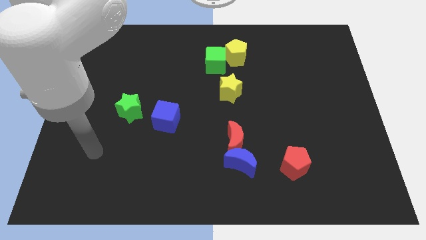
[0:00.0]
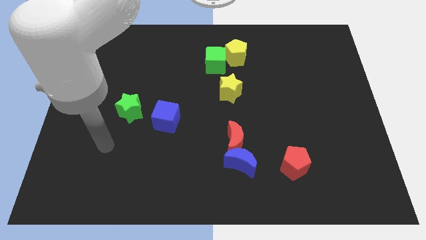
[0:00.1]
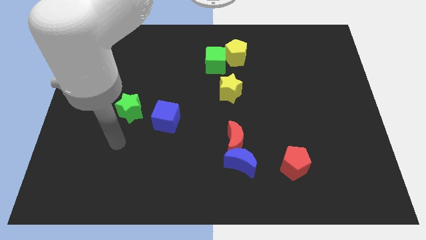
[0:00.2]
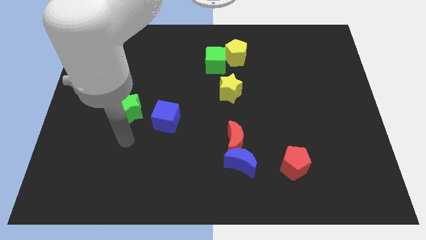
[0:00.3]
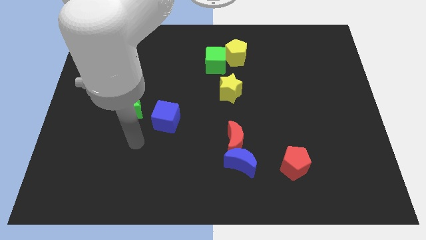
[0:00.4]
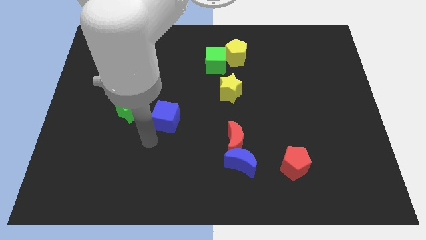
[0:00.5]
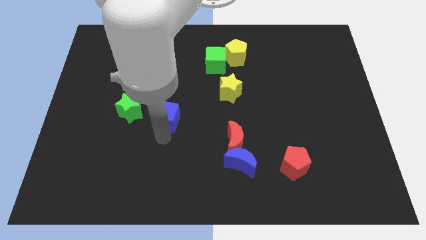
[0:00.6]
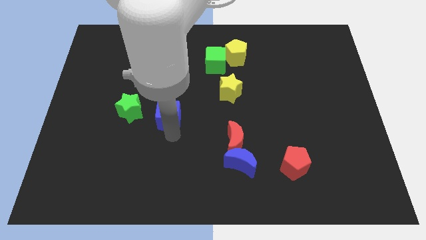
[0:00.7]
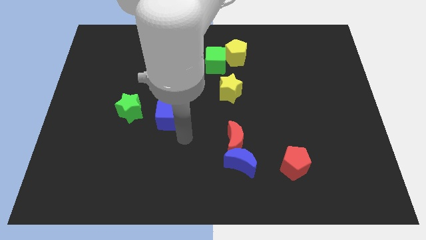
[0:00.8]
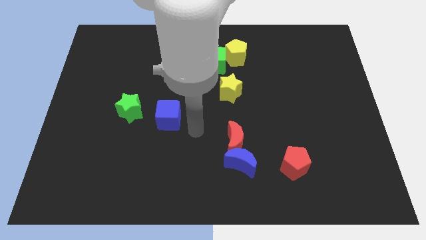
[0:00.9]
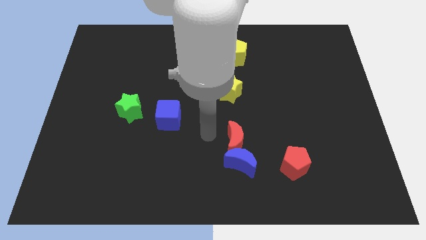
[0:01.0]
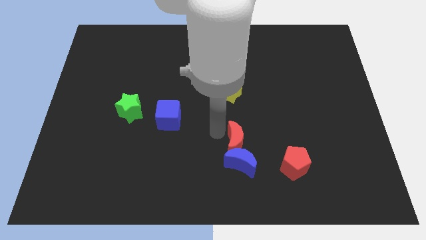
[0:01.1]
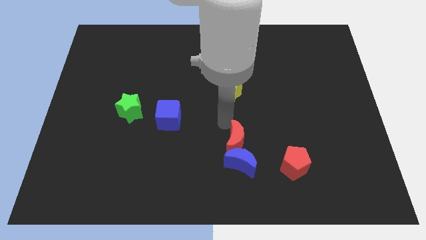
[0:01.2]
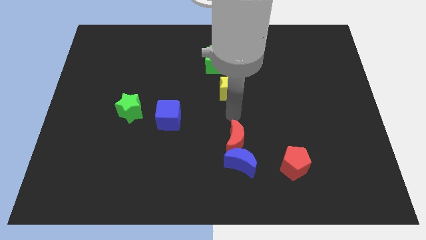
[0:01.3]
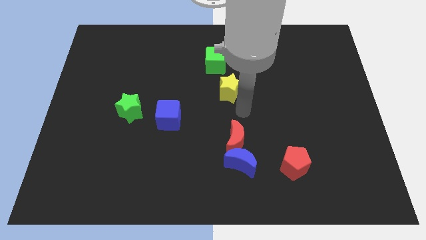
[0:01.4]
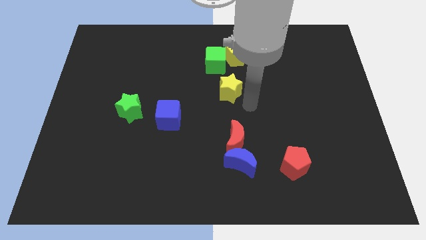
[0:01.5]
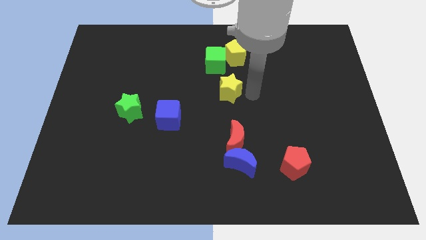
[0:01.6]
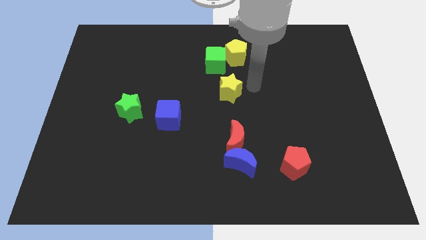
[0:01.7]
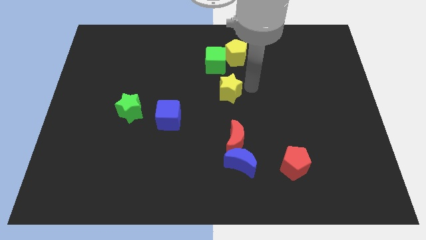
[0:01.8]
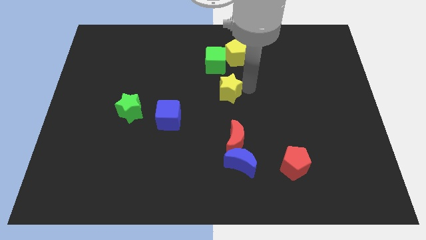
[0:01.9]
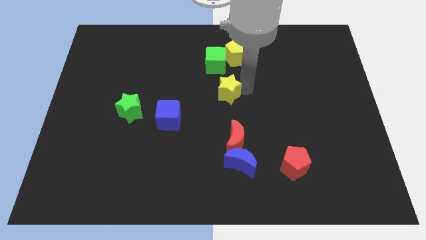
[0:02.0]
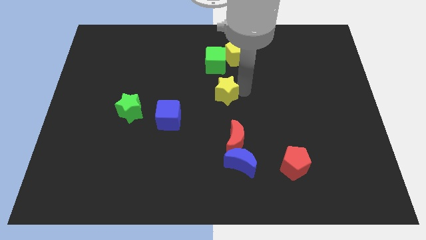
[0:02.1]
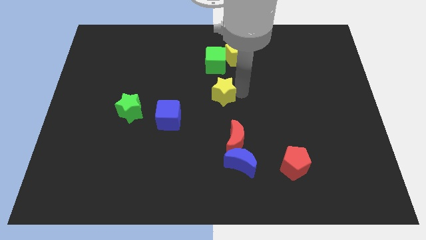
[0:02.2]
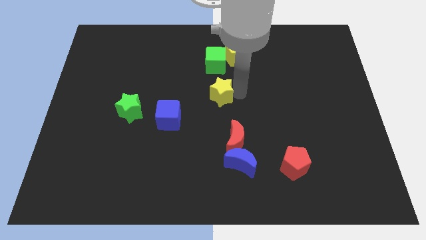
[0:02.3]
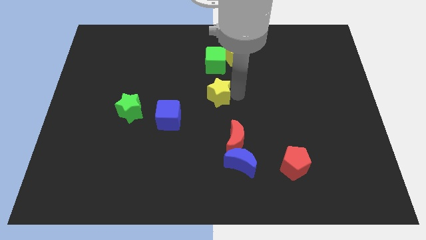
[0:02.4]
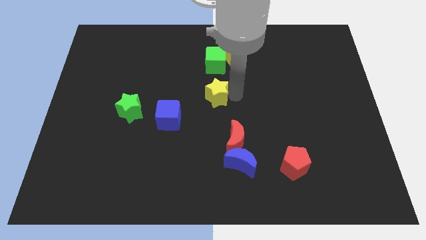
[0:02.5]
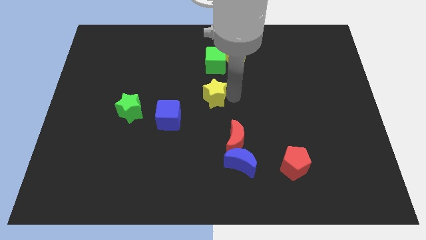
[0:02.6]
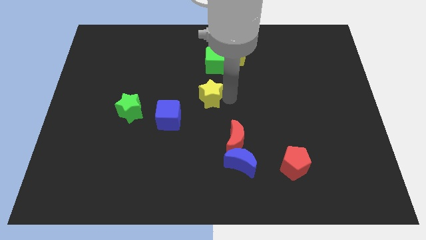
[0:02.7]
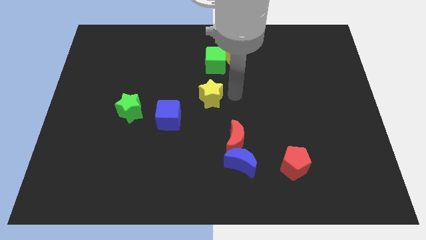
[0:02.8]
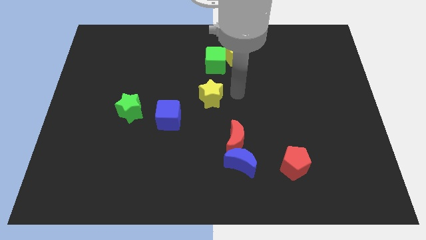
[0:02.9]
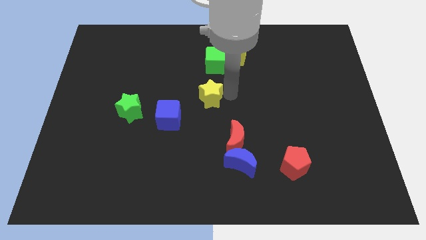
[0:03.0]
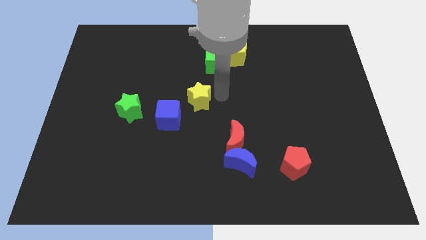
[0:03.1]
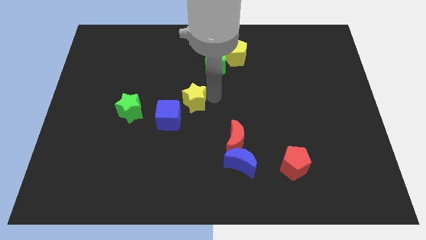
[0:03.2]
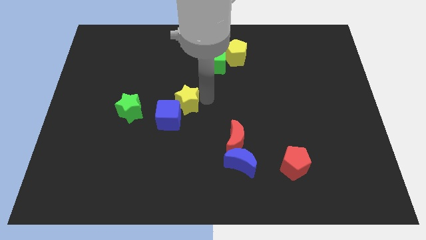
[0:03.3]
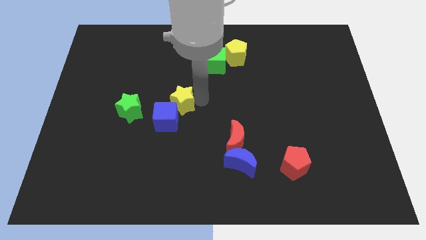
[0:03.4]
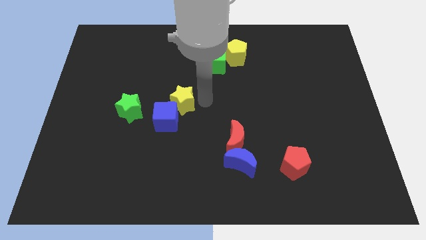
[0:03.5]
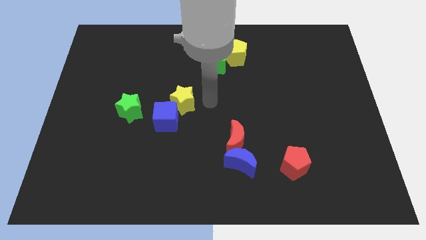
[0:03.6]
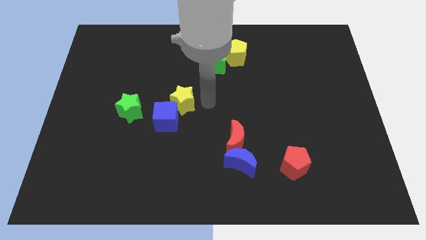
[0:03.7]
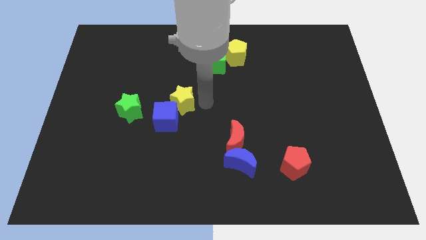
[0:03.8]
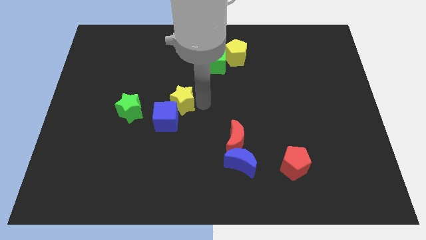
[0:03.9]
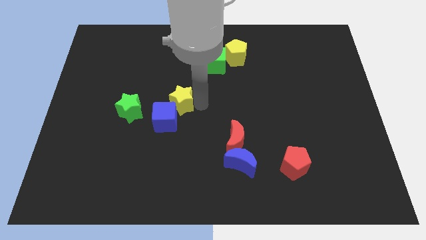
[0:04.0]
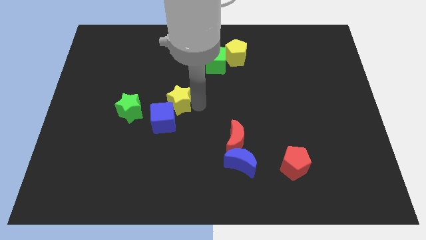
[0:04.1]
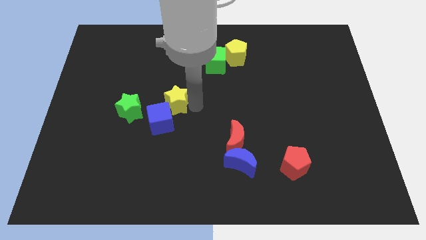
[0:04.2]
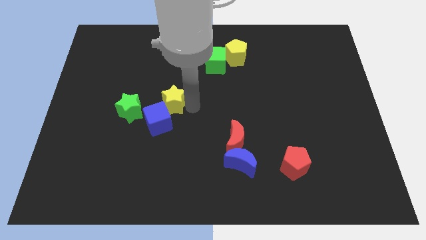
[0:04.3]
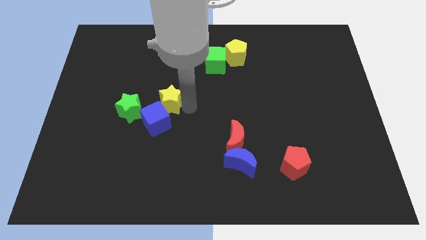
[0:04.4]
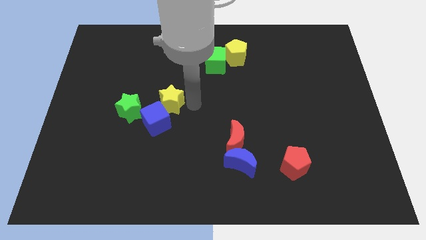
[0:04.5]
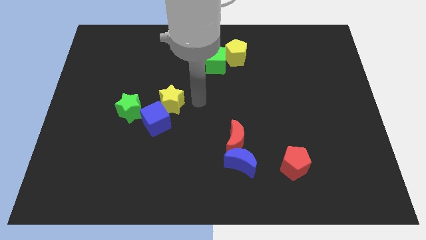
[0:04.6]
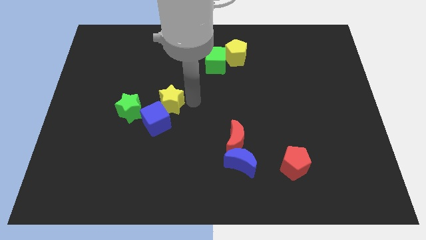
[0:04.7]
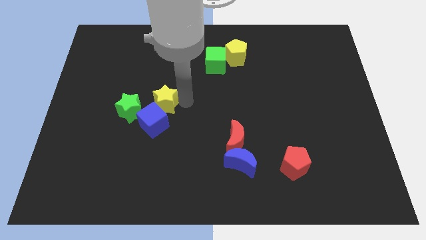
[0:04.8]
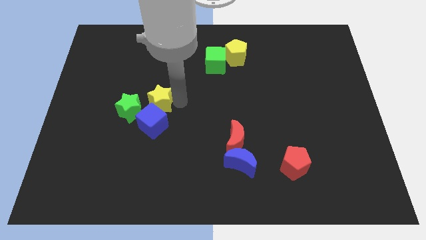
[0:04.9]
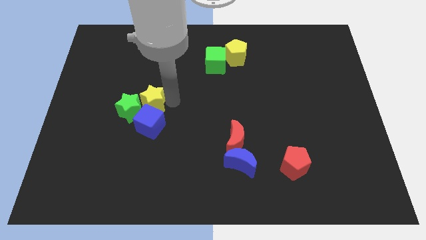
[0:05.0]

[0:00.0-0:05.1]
push the yellow star next to the green star

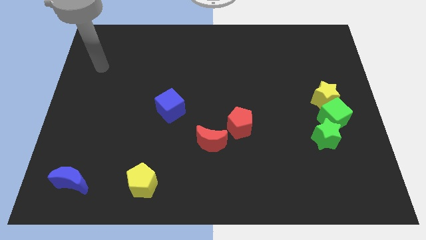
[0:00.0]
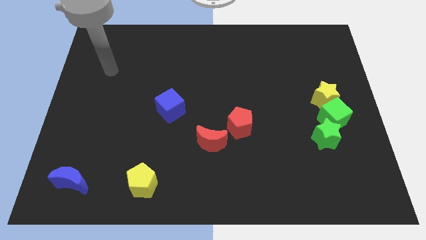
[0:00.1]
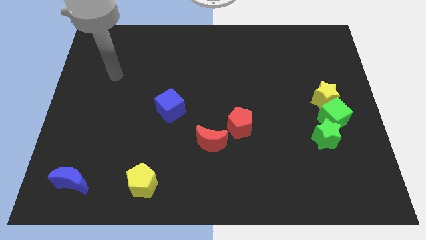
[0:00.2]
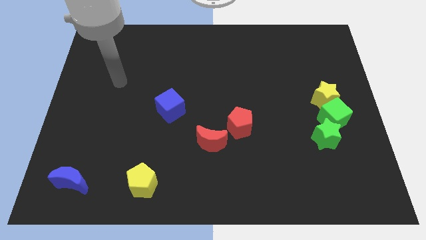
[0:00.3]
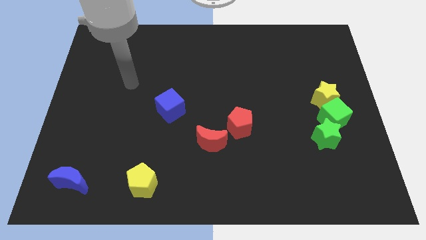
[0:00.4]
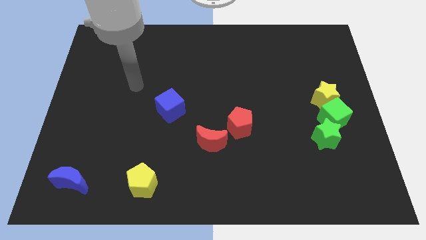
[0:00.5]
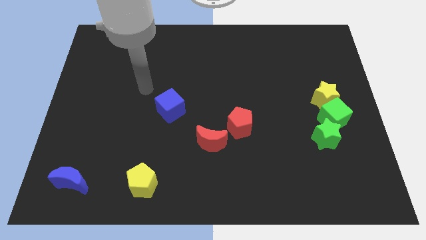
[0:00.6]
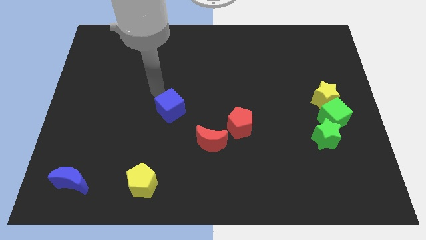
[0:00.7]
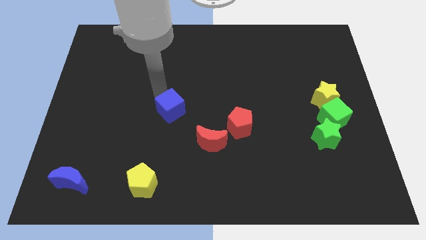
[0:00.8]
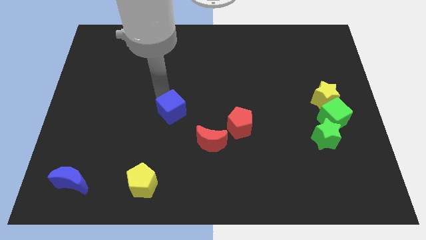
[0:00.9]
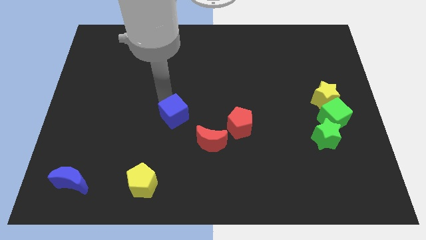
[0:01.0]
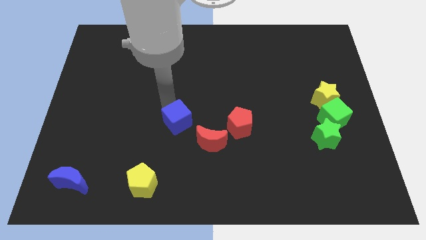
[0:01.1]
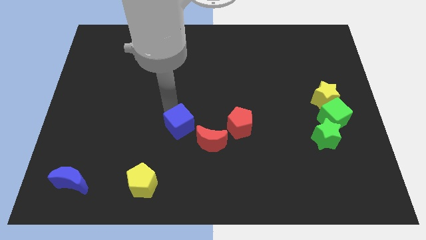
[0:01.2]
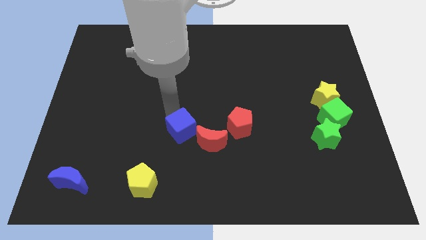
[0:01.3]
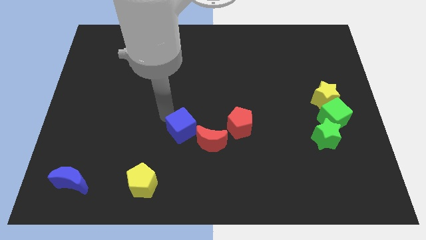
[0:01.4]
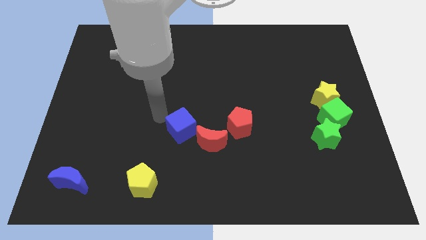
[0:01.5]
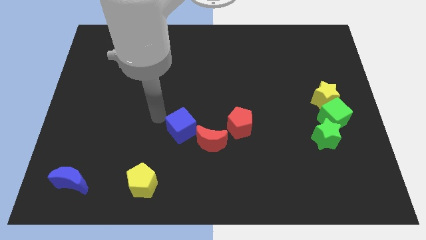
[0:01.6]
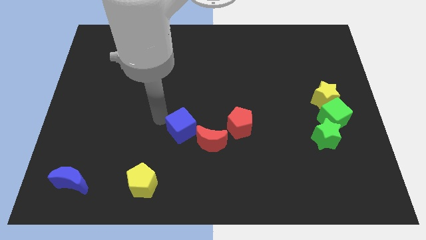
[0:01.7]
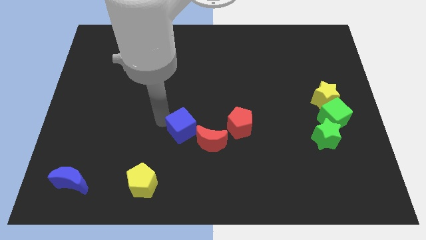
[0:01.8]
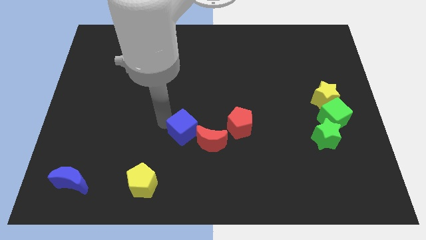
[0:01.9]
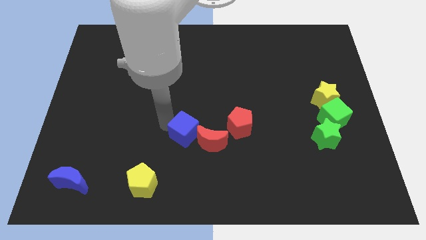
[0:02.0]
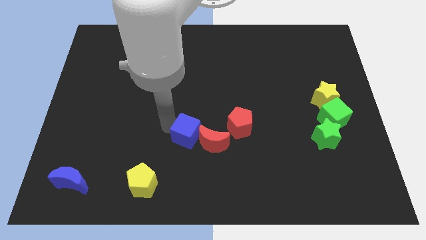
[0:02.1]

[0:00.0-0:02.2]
move the blue cube to the red moon

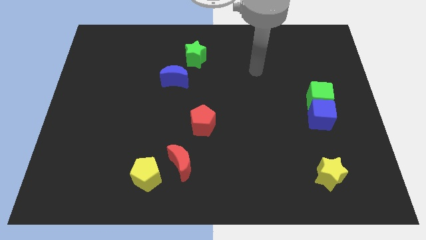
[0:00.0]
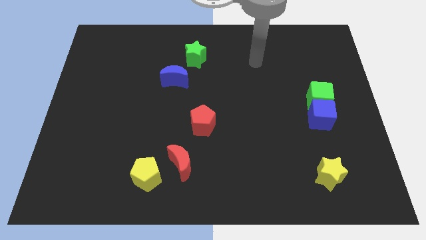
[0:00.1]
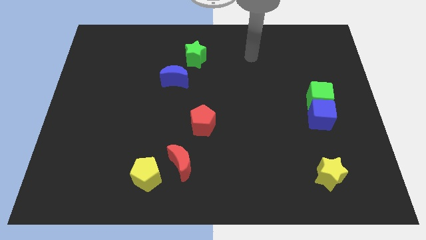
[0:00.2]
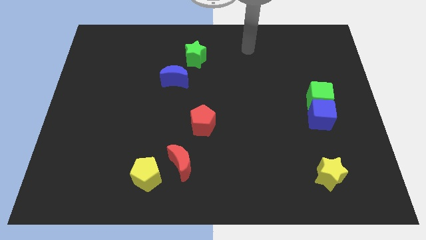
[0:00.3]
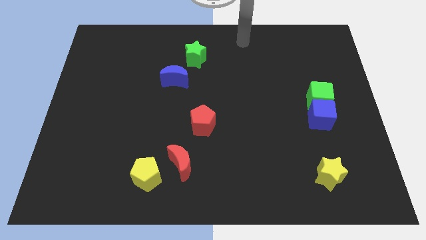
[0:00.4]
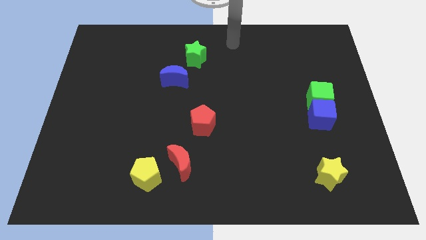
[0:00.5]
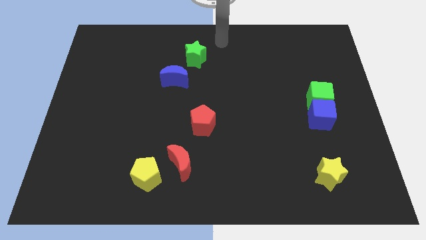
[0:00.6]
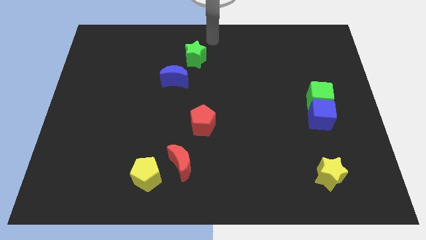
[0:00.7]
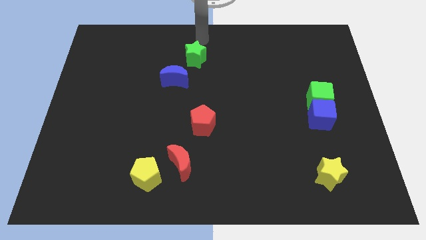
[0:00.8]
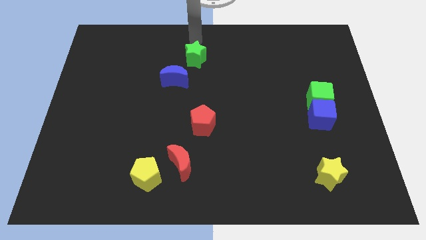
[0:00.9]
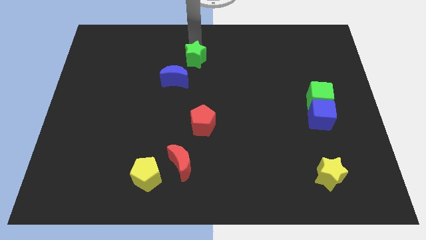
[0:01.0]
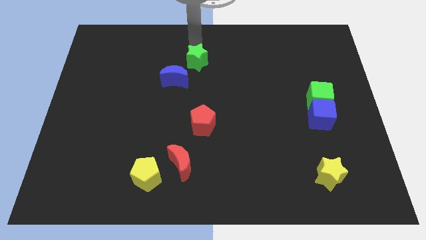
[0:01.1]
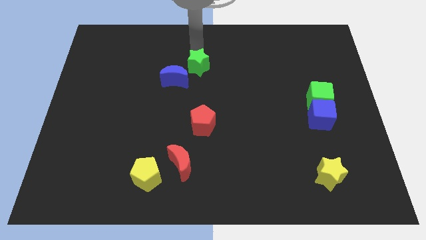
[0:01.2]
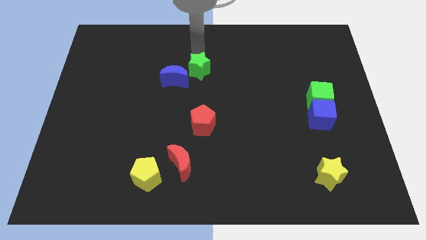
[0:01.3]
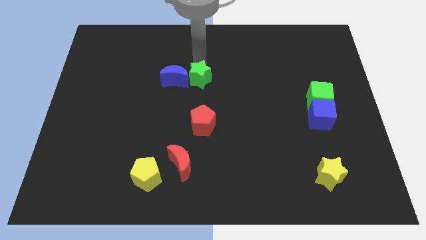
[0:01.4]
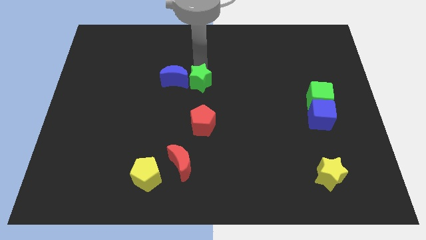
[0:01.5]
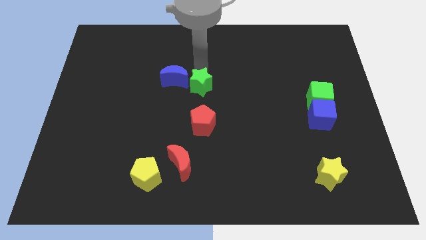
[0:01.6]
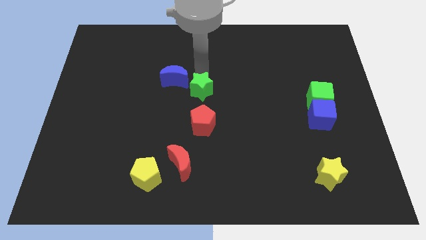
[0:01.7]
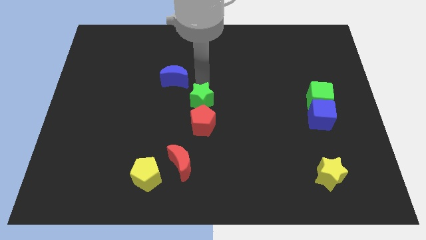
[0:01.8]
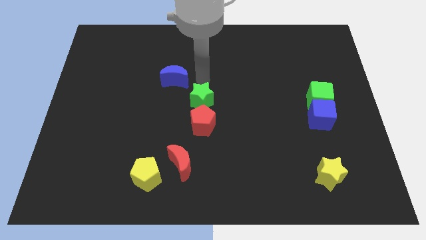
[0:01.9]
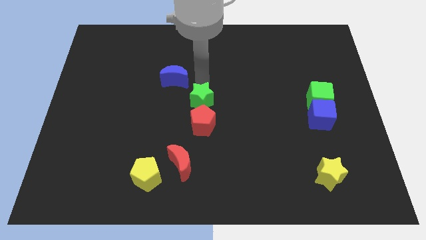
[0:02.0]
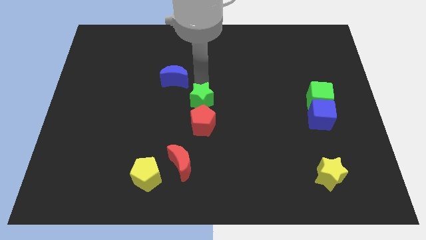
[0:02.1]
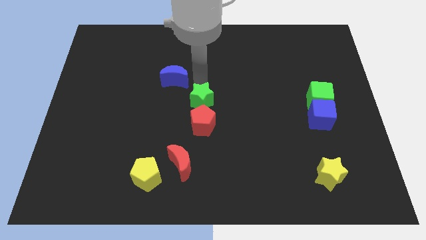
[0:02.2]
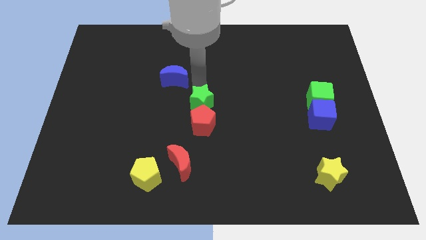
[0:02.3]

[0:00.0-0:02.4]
put the green star next to the red pentagon
